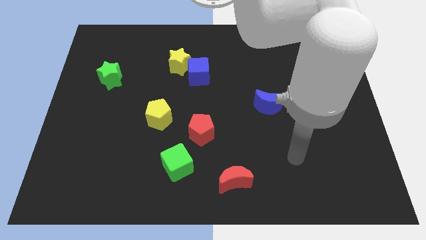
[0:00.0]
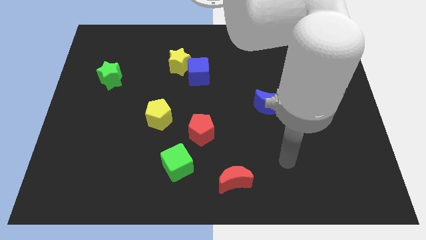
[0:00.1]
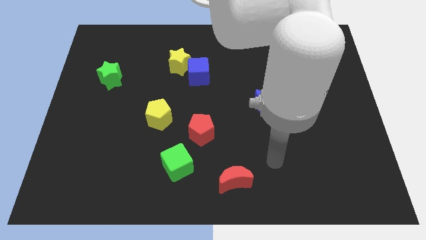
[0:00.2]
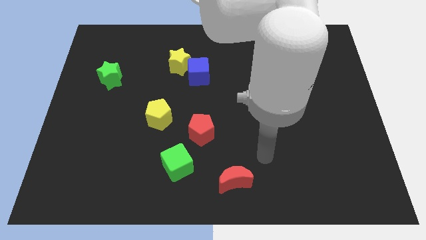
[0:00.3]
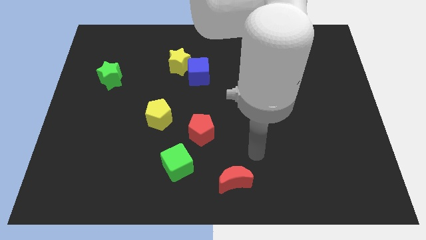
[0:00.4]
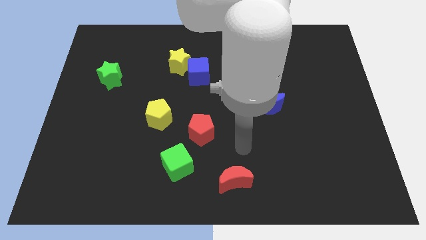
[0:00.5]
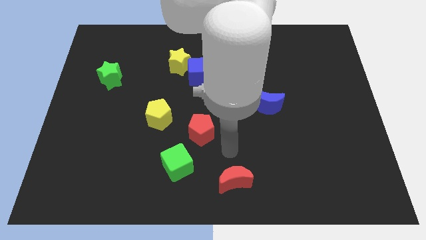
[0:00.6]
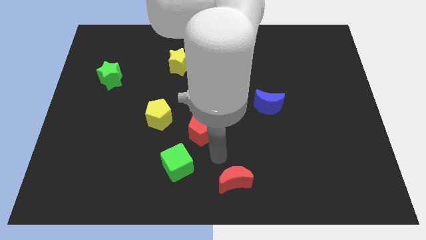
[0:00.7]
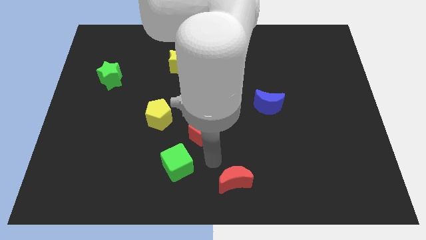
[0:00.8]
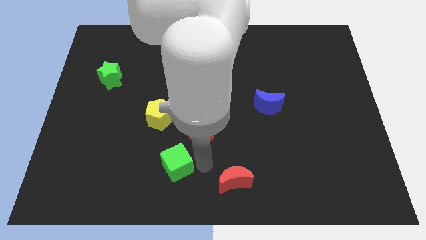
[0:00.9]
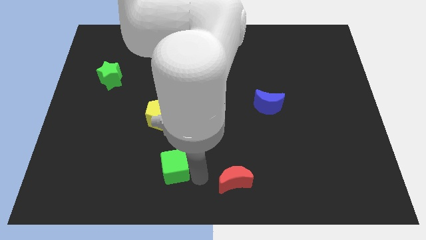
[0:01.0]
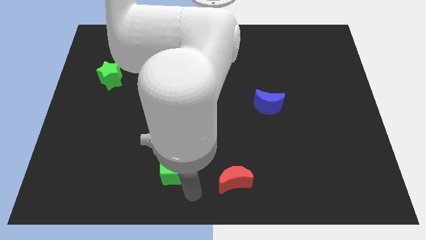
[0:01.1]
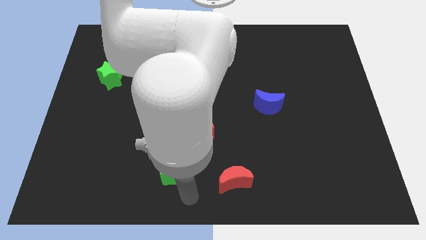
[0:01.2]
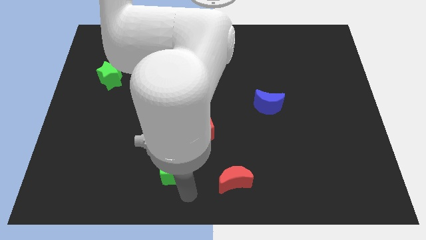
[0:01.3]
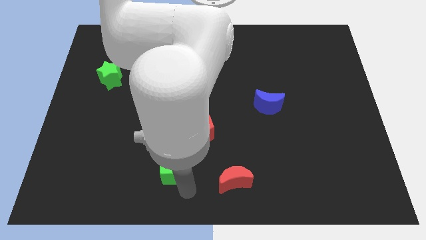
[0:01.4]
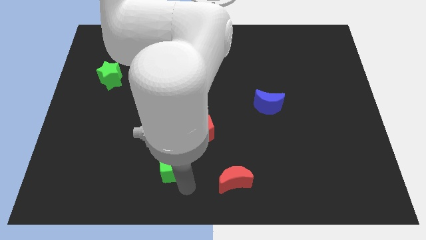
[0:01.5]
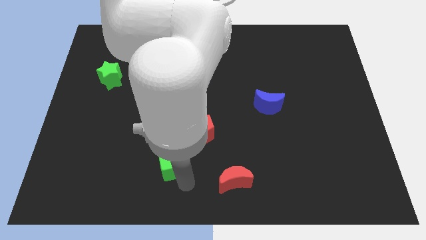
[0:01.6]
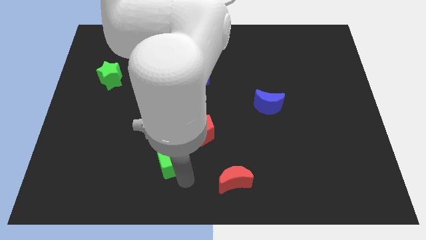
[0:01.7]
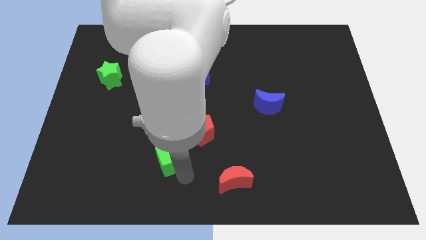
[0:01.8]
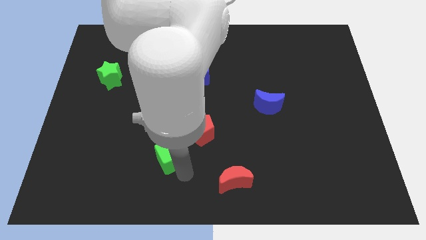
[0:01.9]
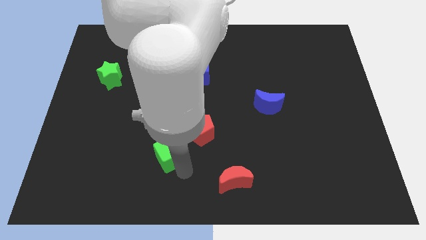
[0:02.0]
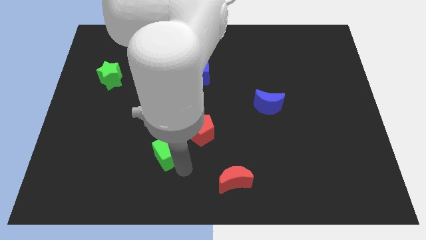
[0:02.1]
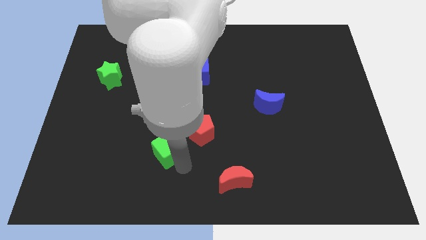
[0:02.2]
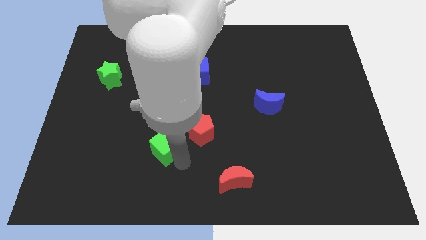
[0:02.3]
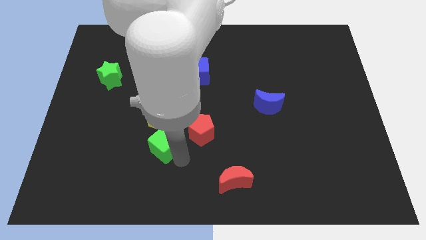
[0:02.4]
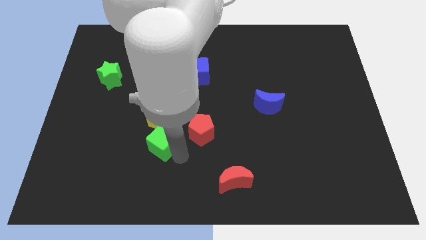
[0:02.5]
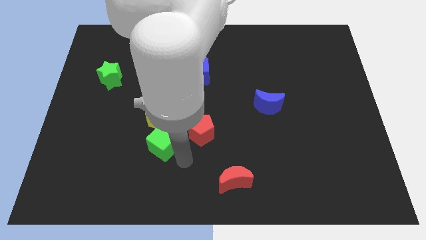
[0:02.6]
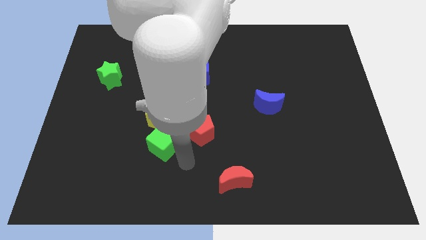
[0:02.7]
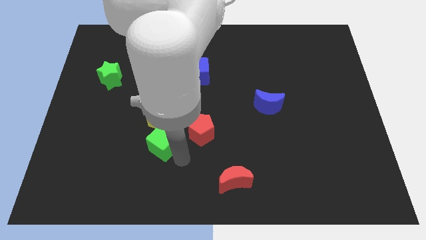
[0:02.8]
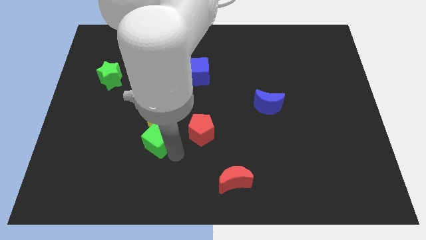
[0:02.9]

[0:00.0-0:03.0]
slightly push the green cube up and then left

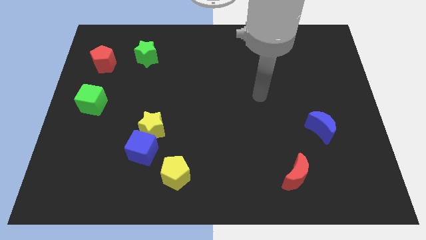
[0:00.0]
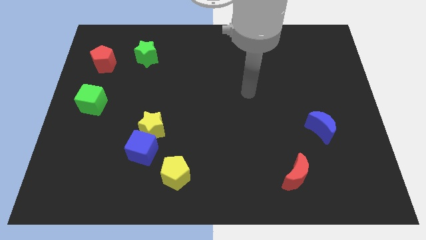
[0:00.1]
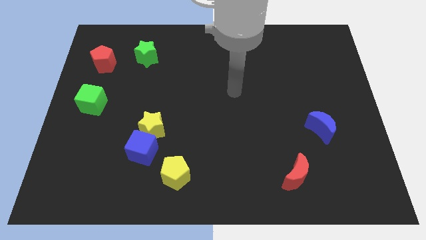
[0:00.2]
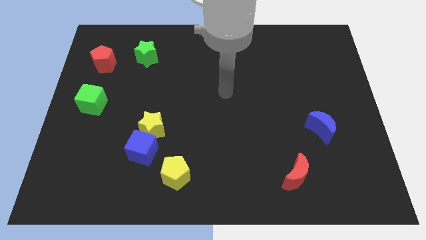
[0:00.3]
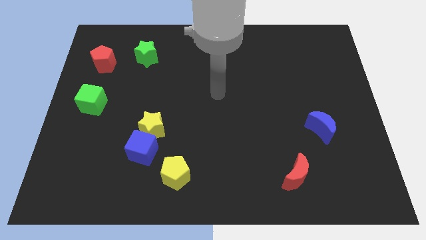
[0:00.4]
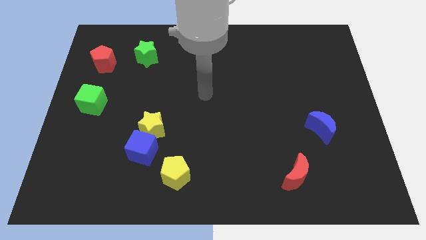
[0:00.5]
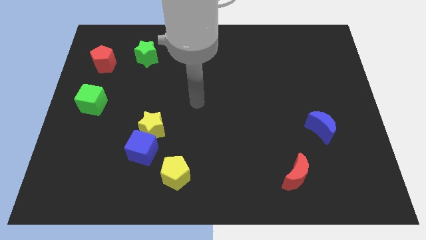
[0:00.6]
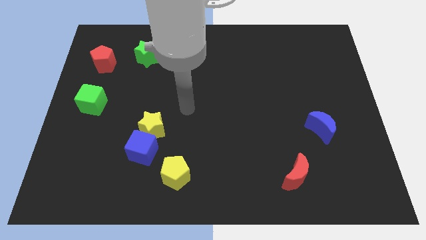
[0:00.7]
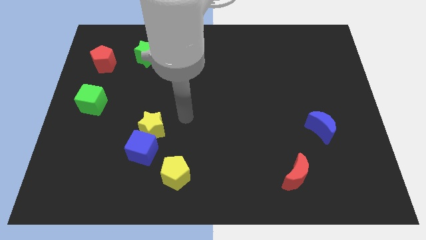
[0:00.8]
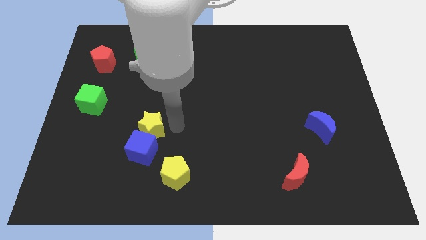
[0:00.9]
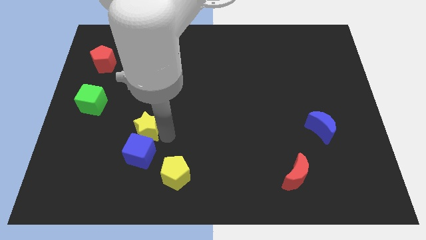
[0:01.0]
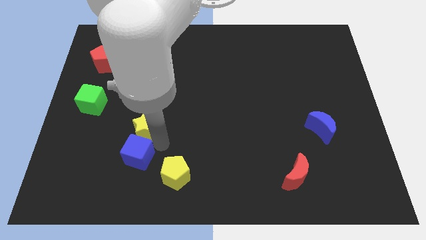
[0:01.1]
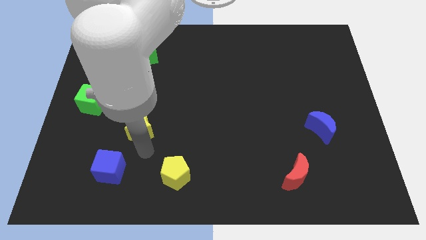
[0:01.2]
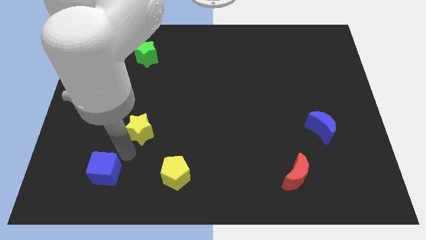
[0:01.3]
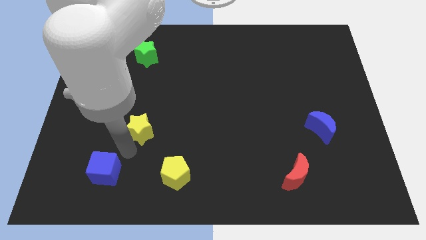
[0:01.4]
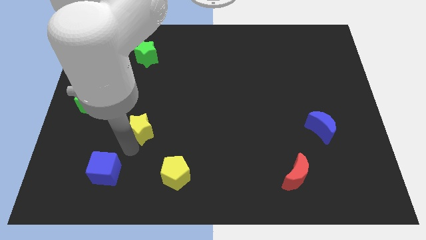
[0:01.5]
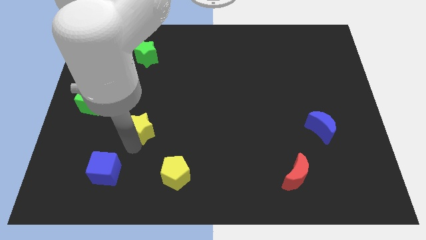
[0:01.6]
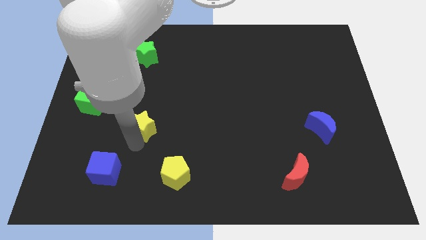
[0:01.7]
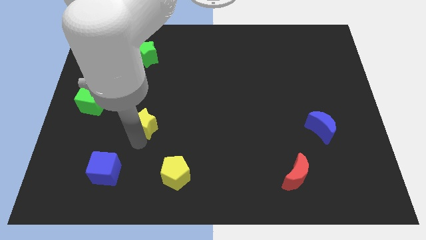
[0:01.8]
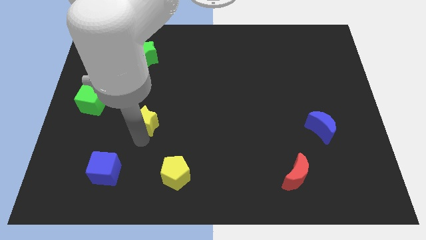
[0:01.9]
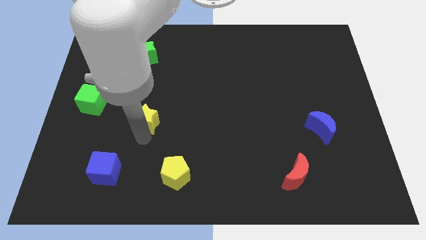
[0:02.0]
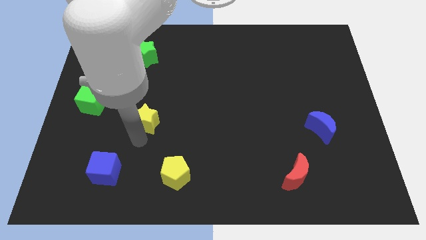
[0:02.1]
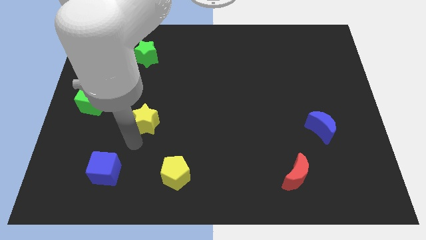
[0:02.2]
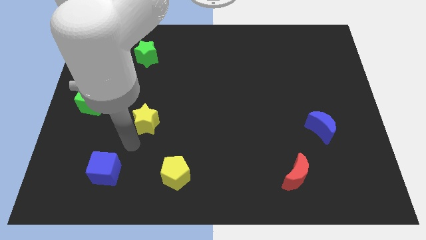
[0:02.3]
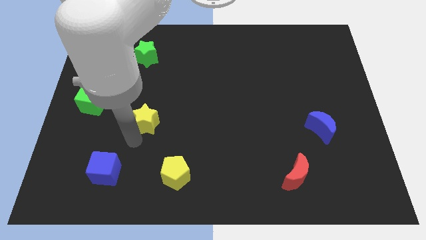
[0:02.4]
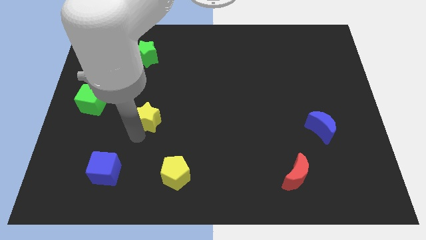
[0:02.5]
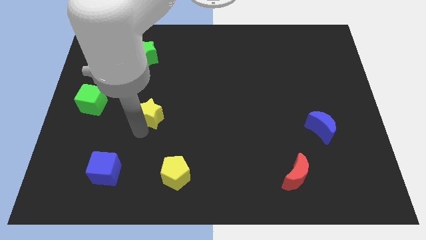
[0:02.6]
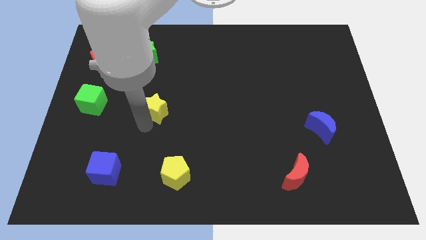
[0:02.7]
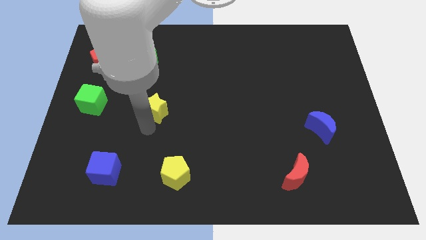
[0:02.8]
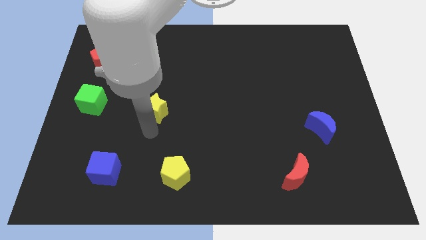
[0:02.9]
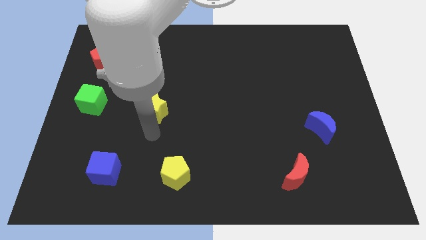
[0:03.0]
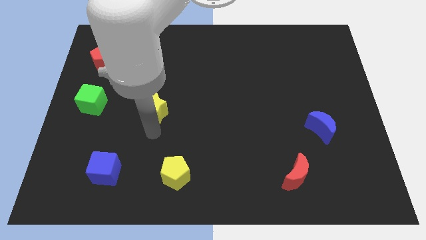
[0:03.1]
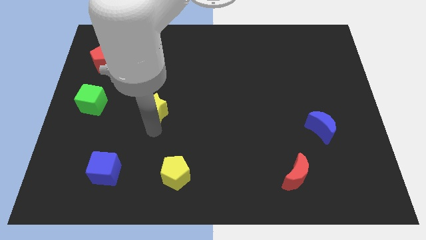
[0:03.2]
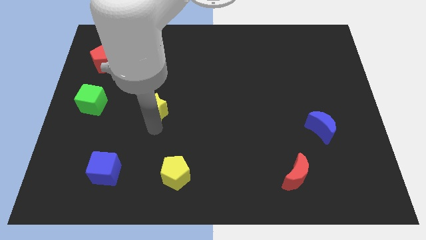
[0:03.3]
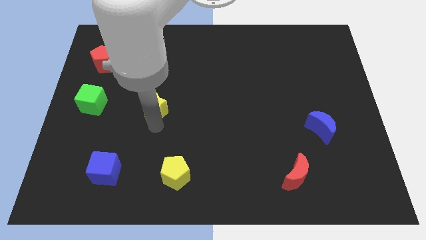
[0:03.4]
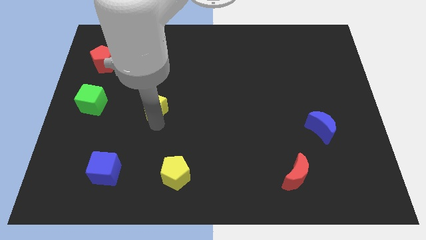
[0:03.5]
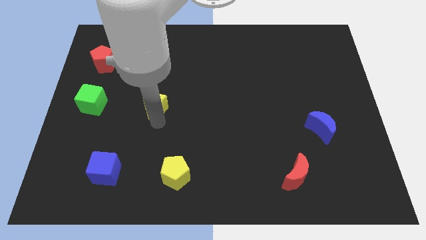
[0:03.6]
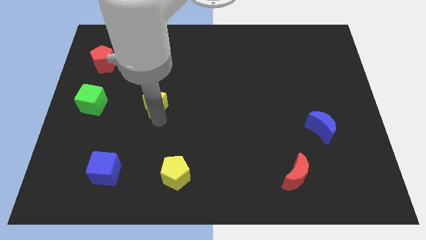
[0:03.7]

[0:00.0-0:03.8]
slide the yellow star a bit upwards

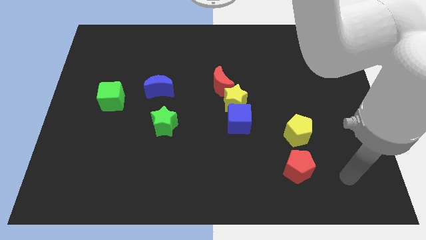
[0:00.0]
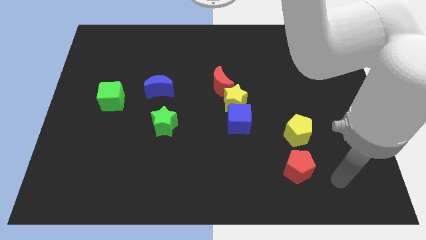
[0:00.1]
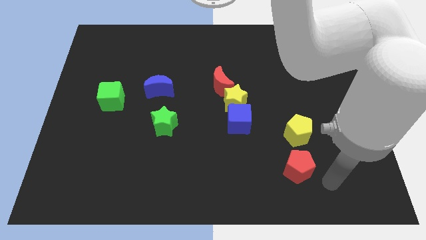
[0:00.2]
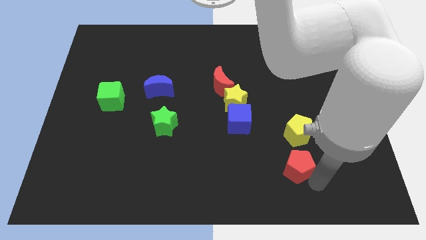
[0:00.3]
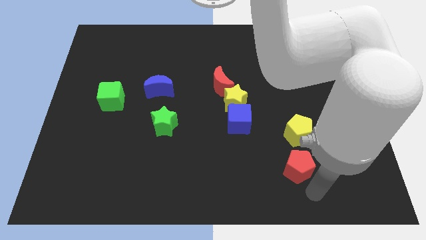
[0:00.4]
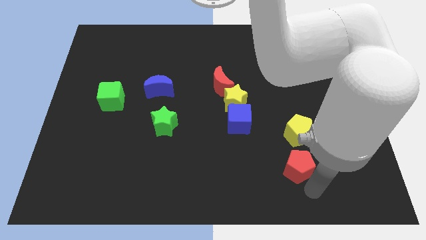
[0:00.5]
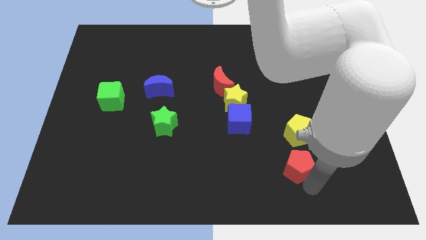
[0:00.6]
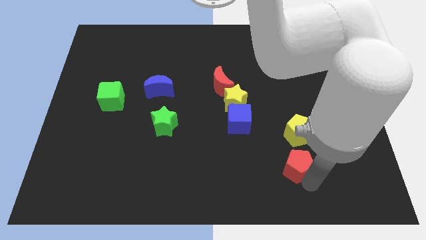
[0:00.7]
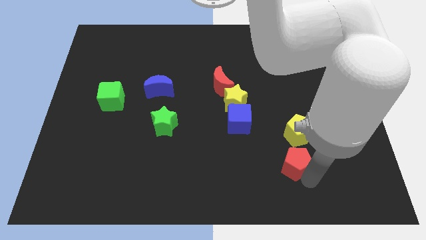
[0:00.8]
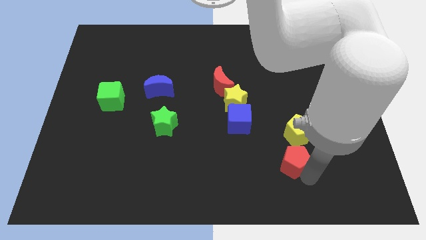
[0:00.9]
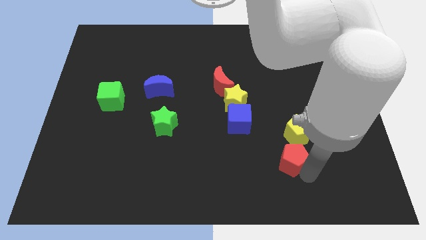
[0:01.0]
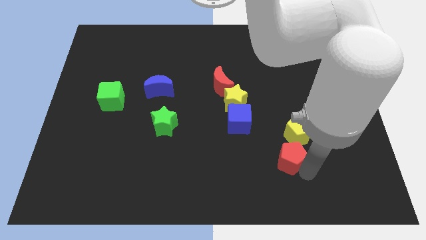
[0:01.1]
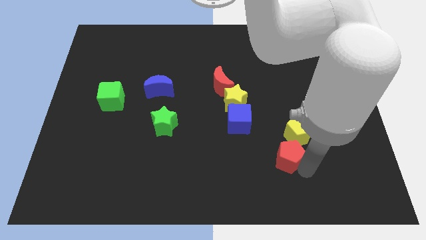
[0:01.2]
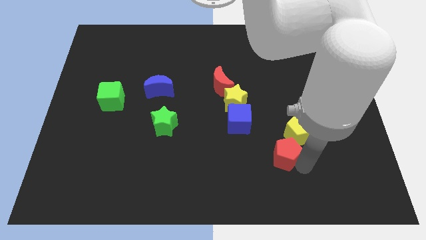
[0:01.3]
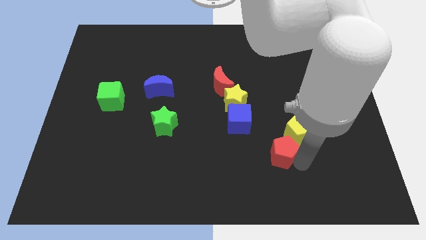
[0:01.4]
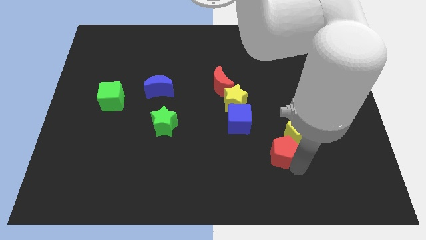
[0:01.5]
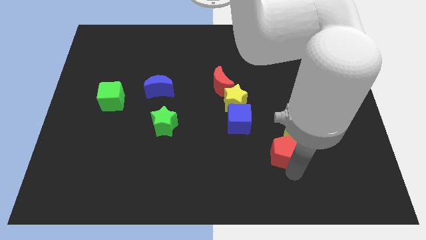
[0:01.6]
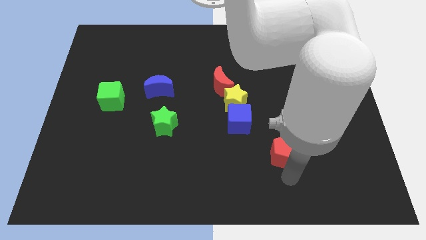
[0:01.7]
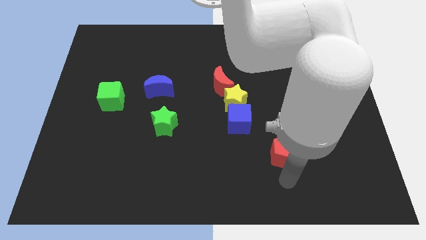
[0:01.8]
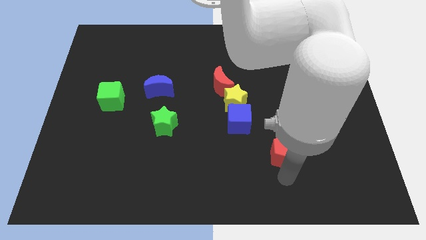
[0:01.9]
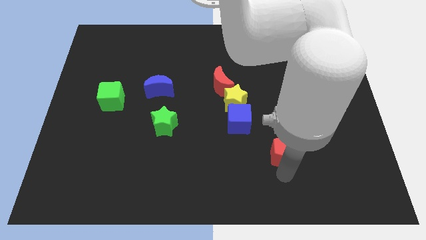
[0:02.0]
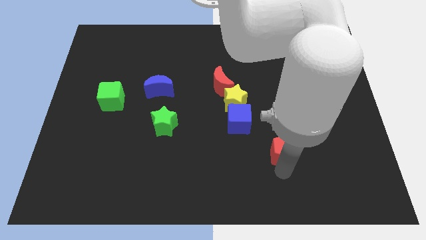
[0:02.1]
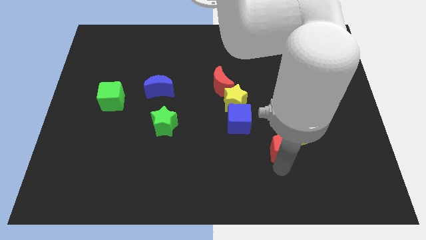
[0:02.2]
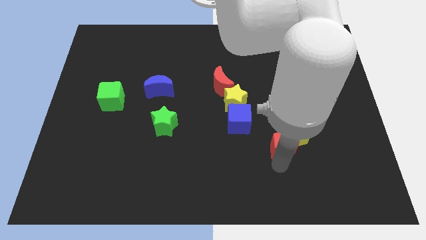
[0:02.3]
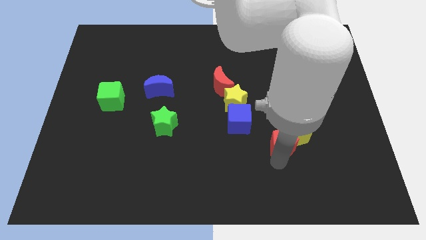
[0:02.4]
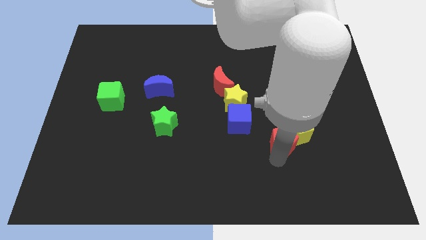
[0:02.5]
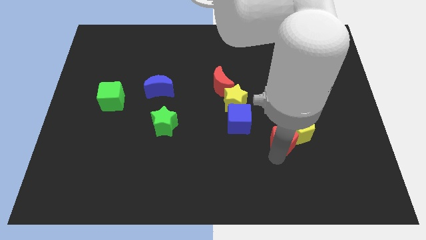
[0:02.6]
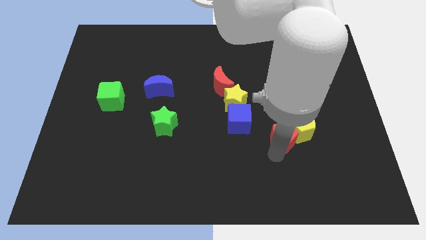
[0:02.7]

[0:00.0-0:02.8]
move the red pentagon up a bit
